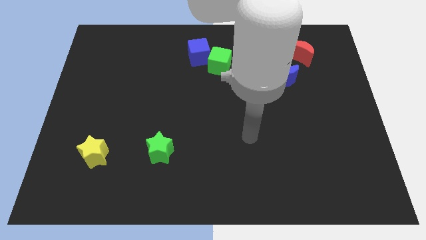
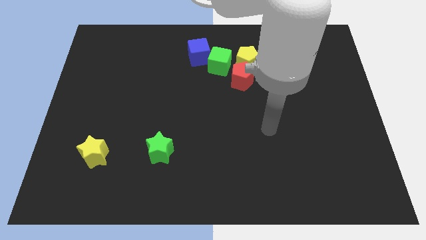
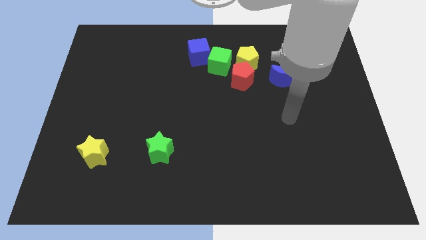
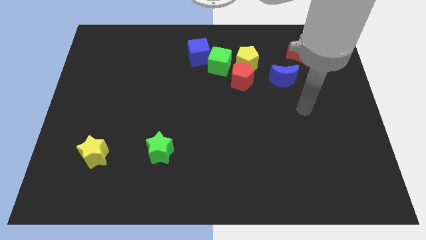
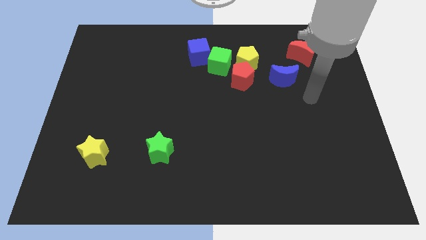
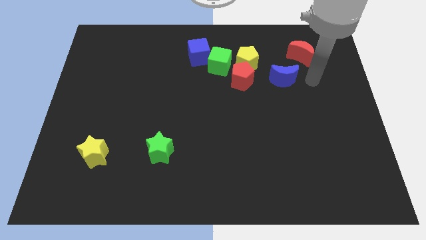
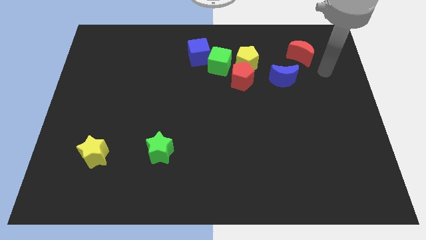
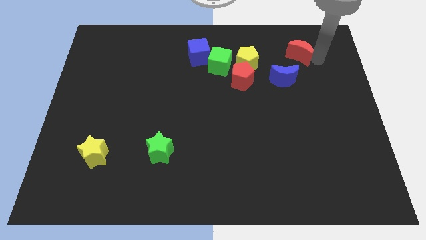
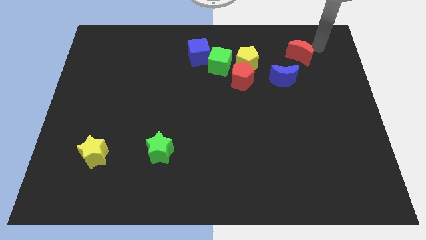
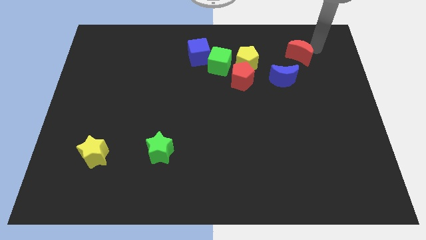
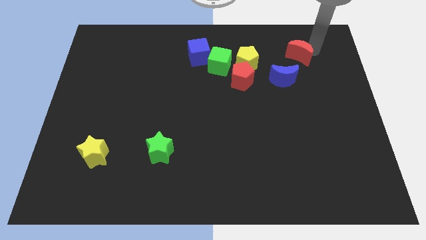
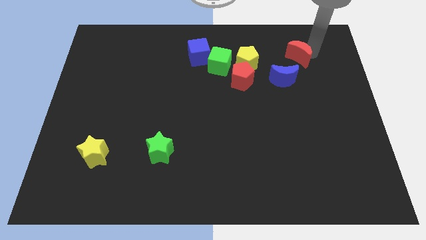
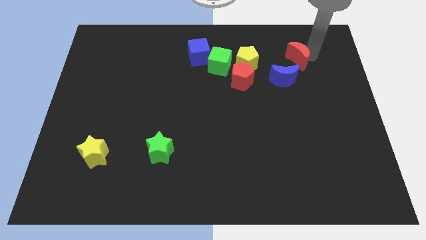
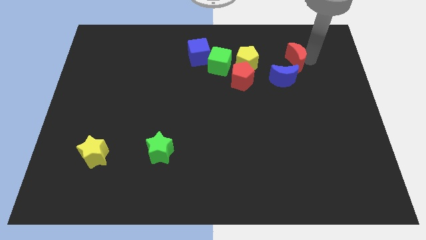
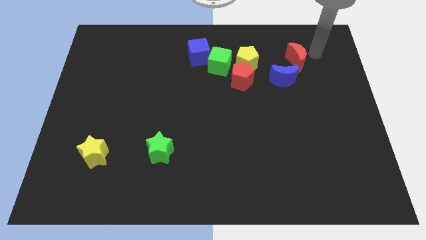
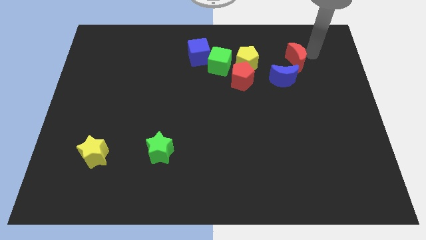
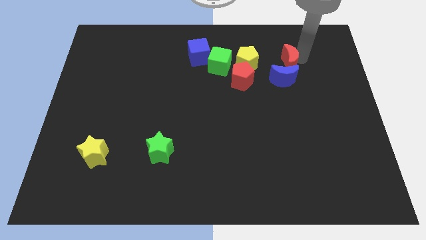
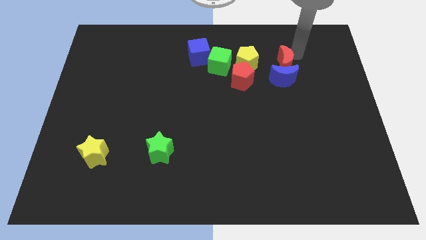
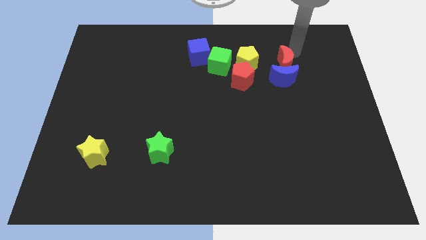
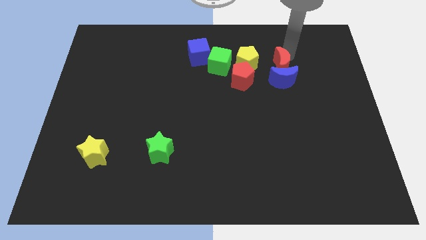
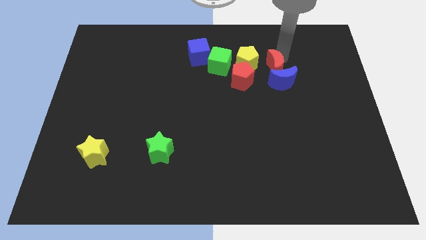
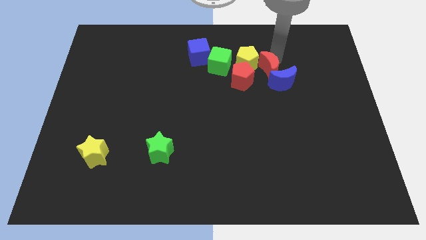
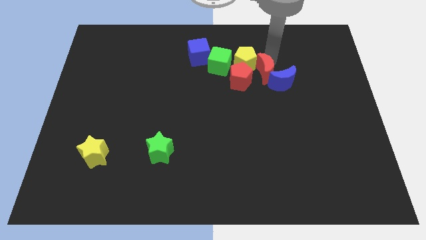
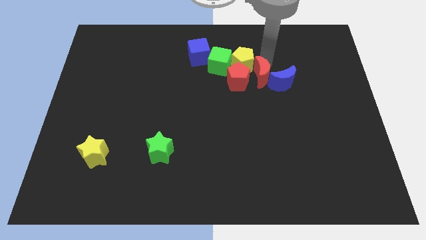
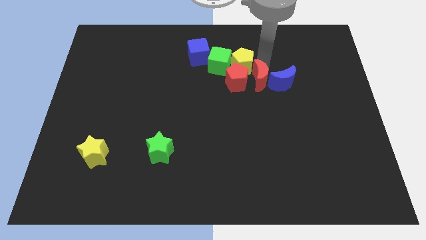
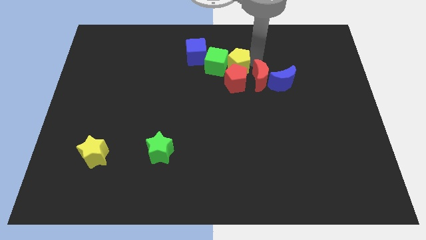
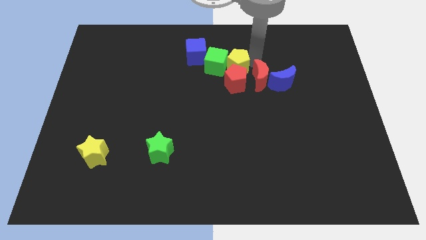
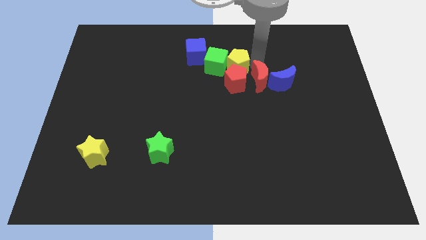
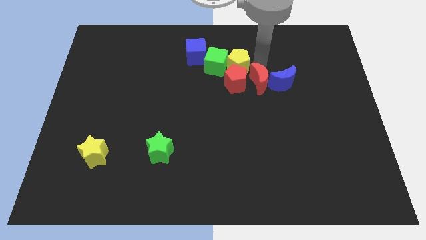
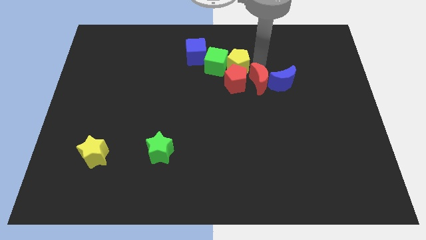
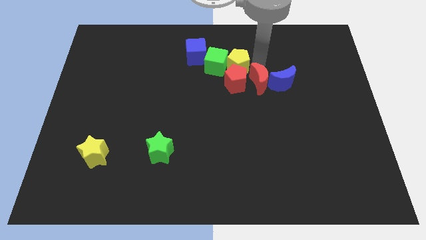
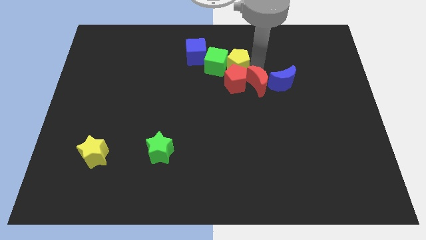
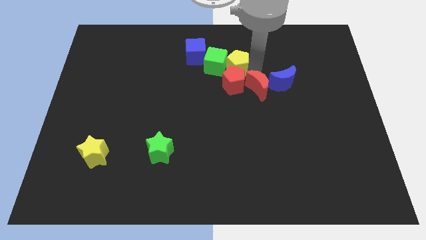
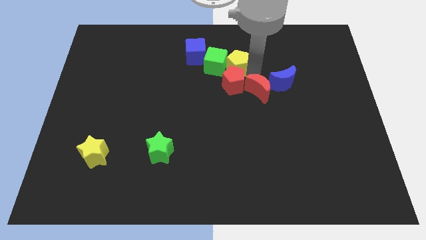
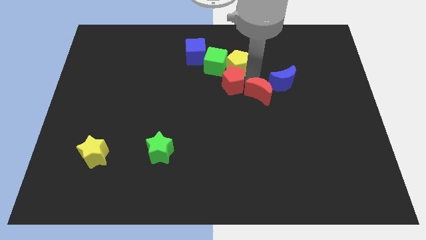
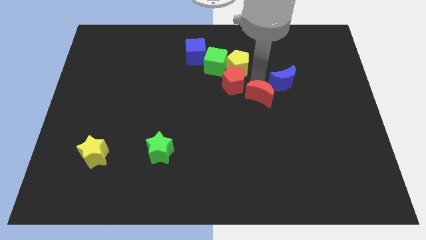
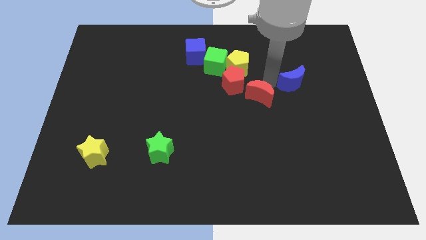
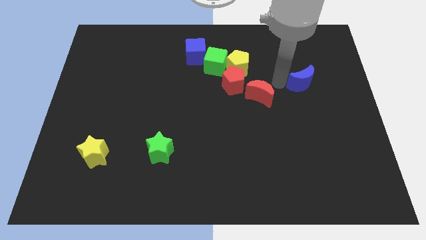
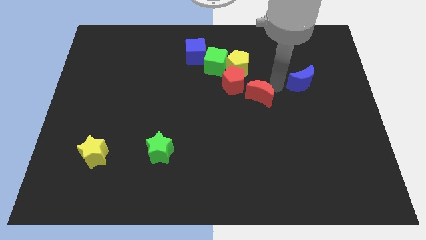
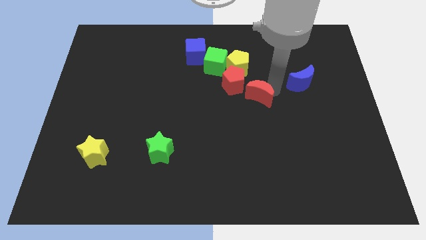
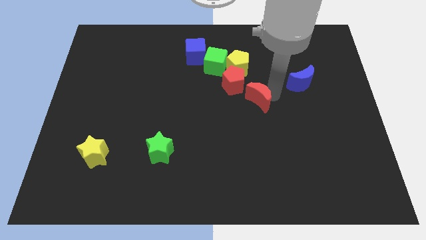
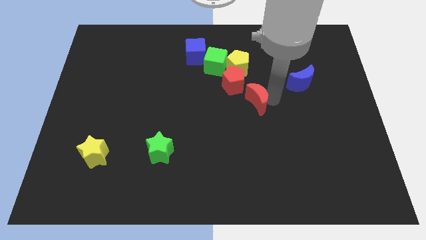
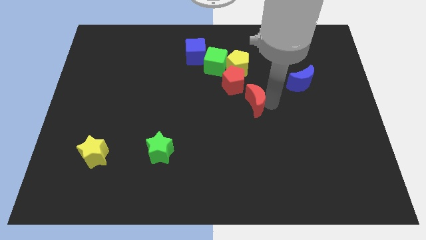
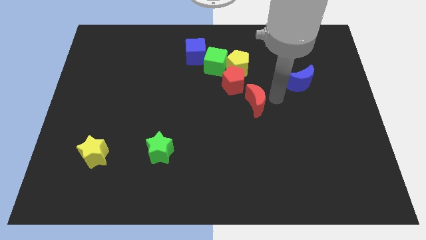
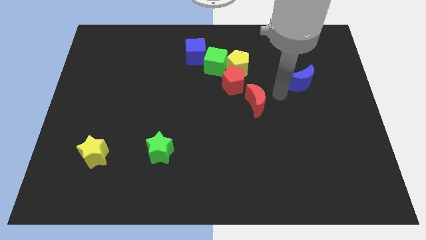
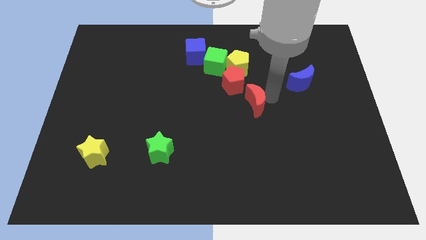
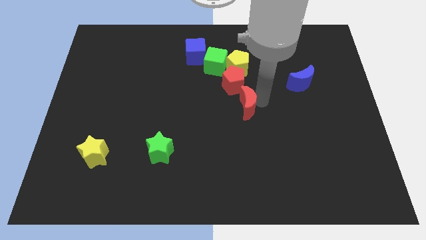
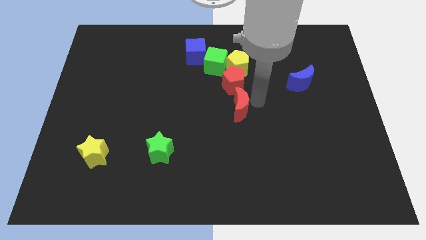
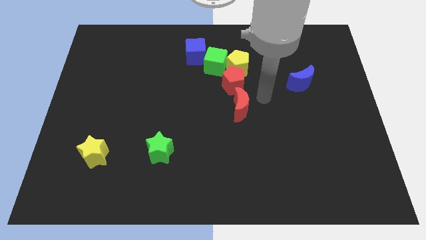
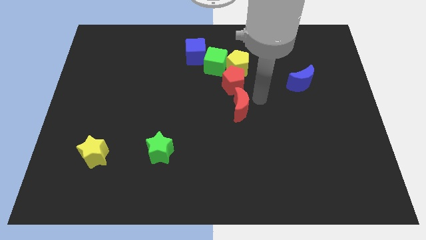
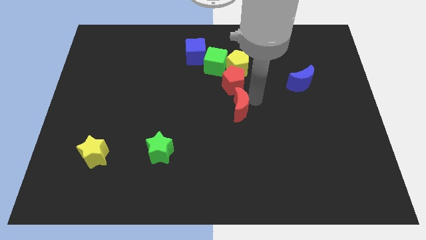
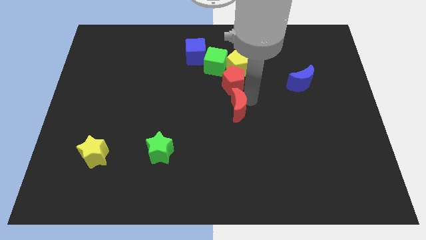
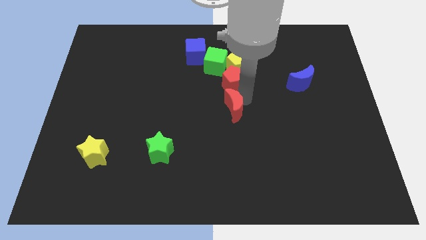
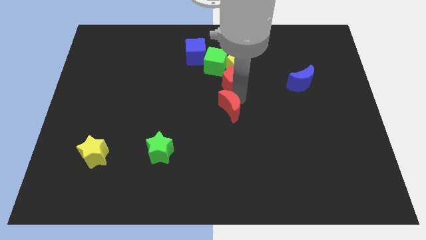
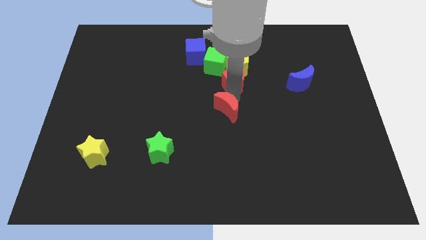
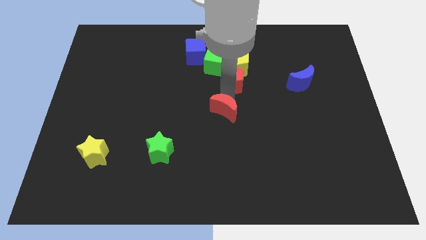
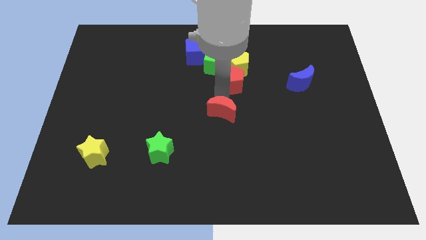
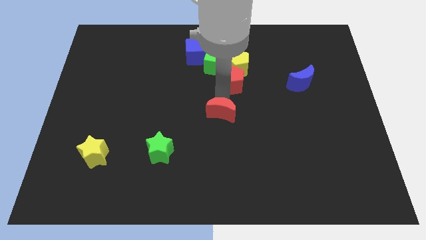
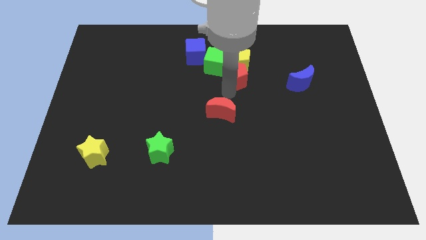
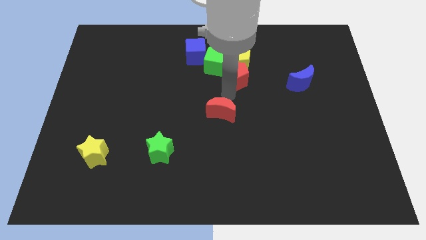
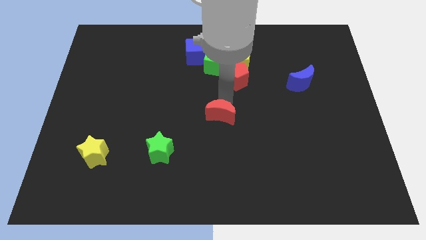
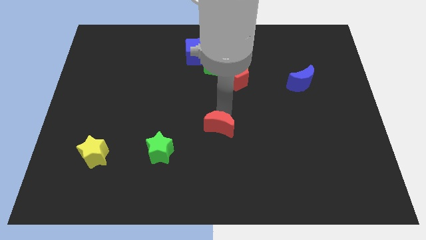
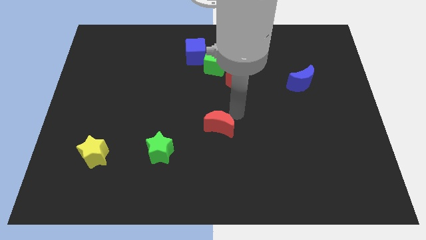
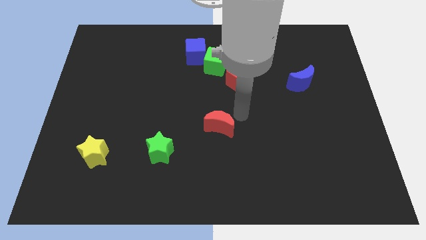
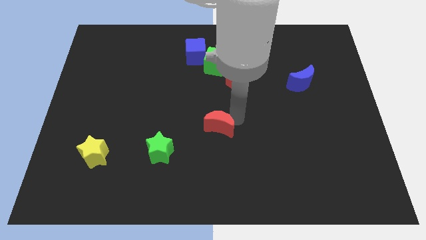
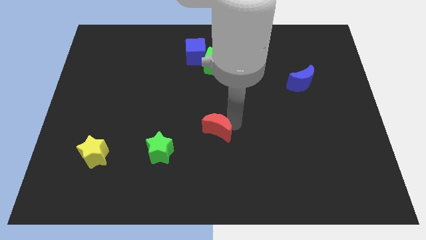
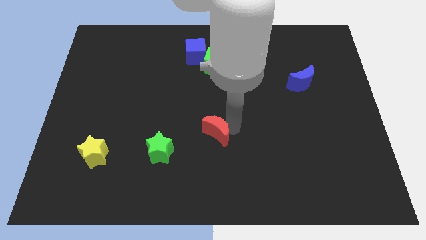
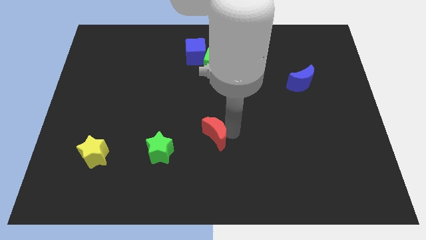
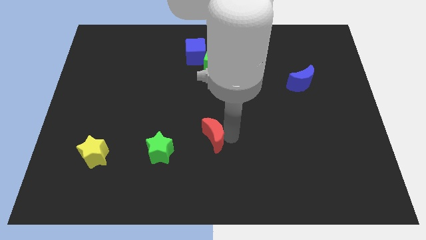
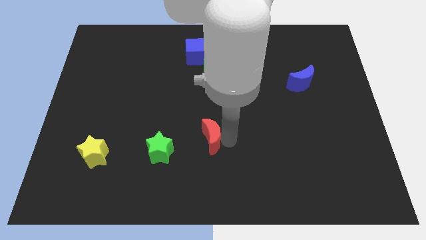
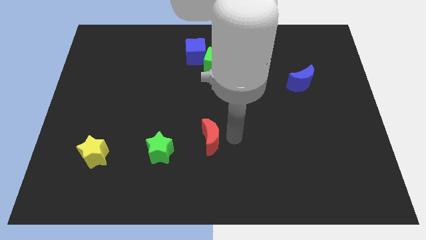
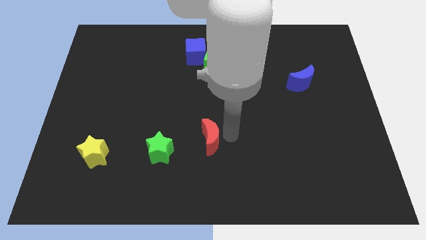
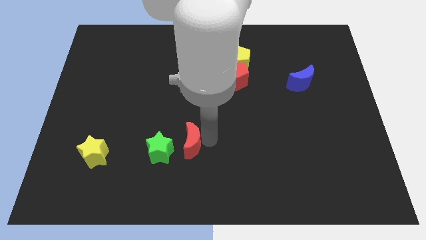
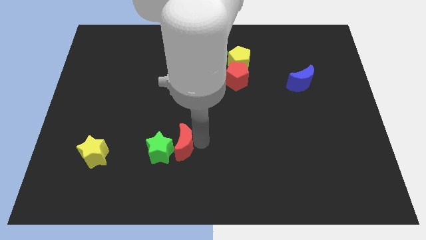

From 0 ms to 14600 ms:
slide the red moon close to the green star
